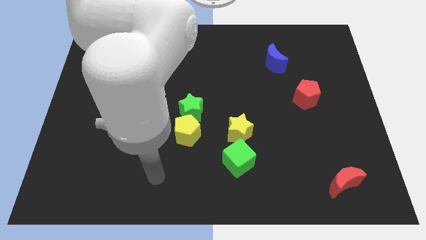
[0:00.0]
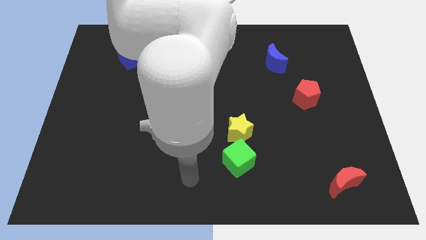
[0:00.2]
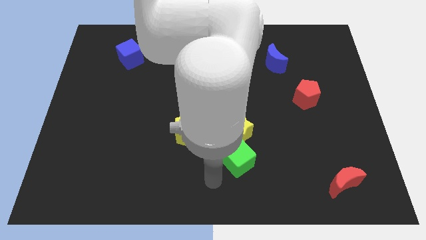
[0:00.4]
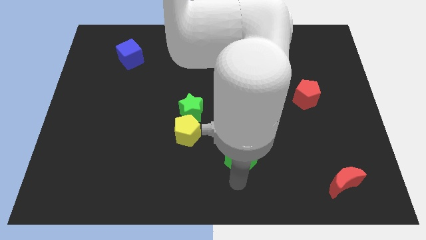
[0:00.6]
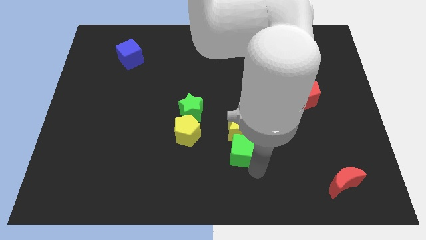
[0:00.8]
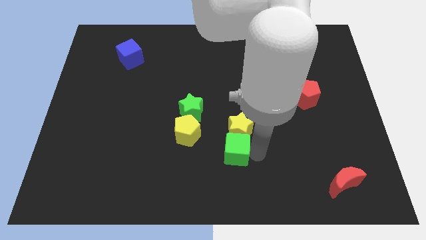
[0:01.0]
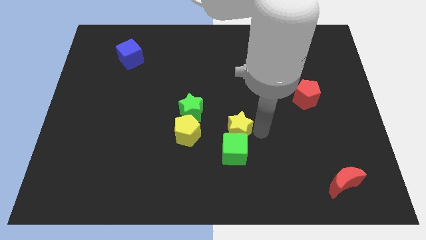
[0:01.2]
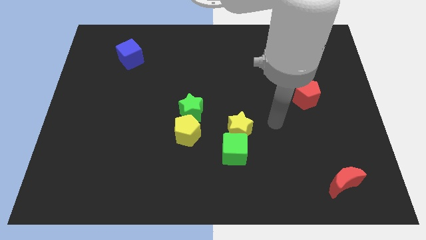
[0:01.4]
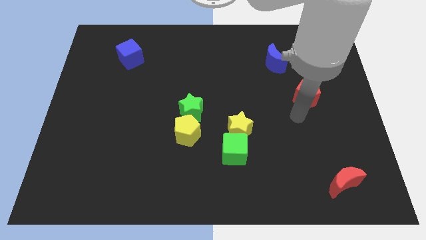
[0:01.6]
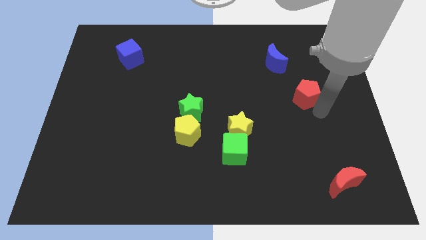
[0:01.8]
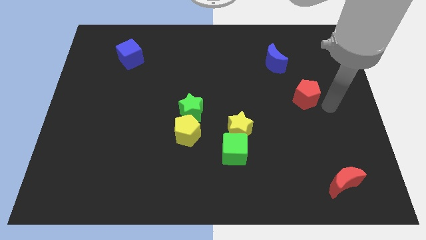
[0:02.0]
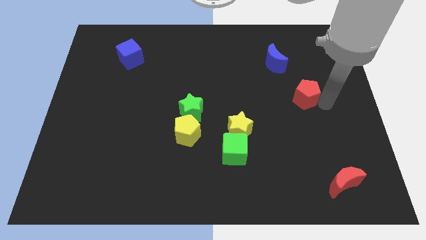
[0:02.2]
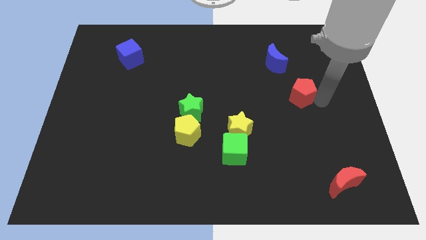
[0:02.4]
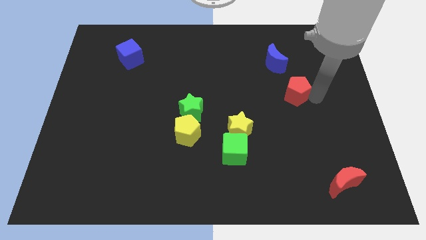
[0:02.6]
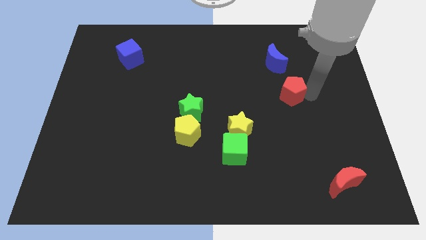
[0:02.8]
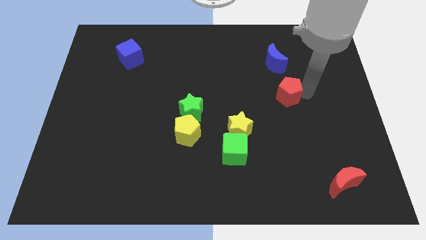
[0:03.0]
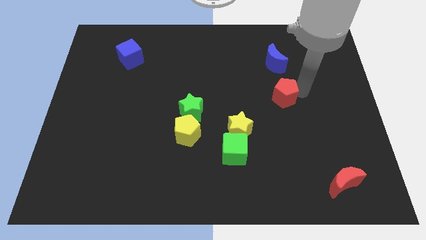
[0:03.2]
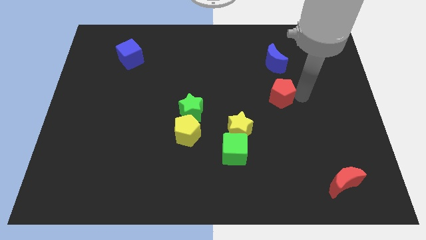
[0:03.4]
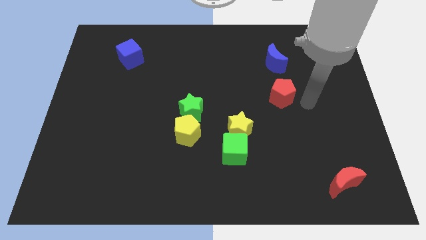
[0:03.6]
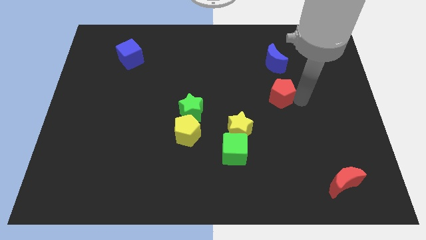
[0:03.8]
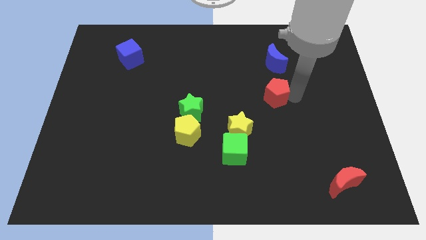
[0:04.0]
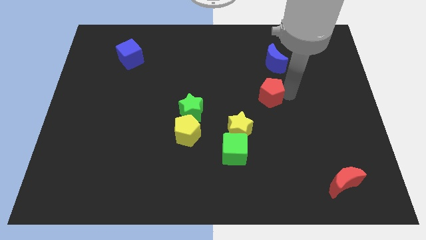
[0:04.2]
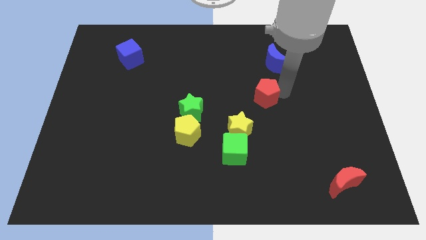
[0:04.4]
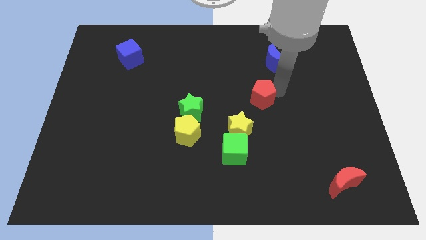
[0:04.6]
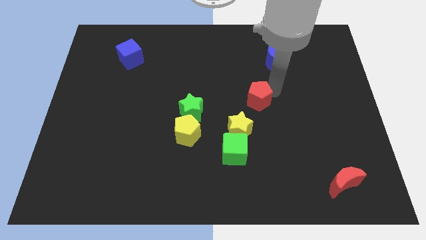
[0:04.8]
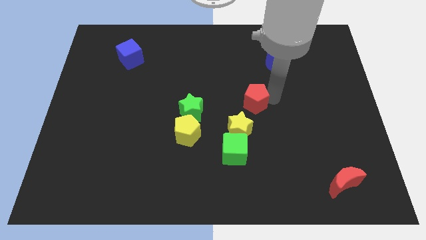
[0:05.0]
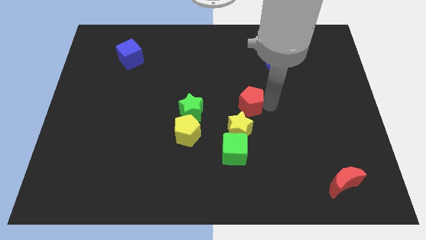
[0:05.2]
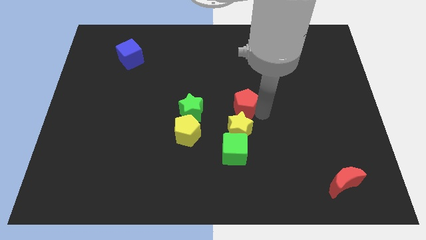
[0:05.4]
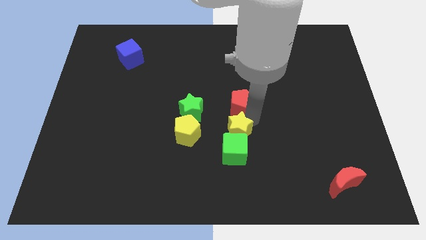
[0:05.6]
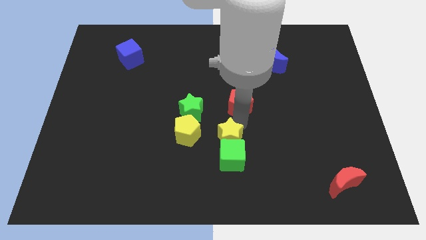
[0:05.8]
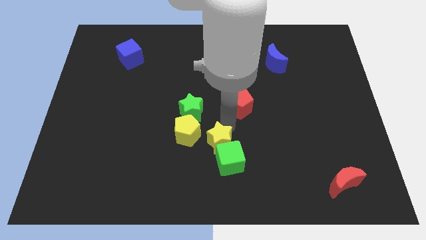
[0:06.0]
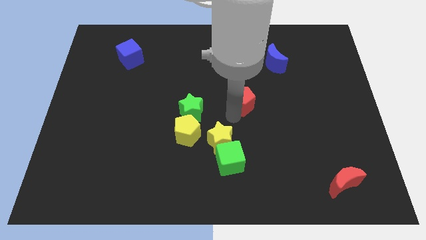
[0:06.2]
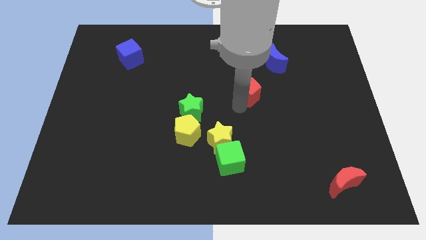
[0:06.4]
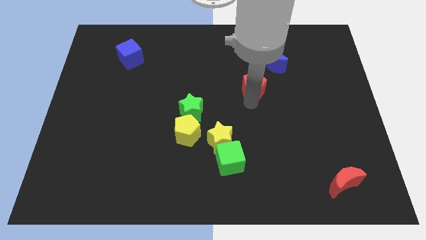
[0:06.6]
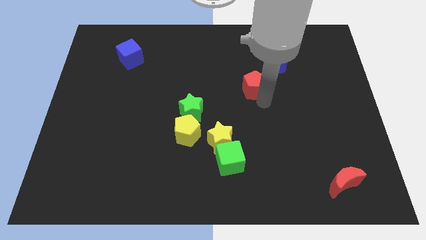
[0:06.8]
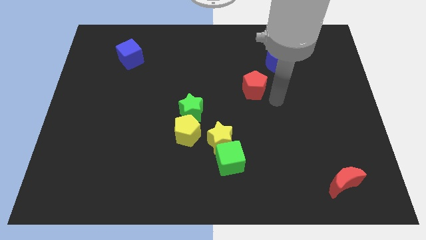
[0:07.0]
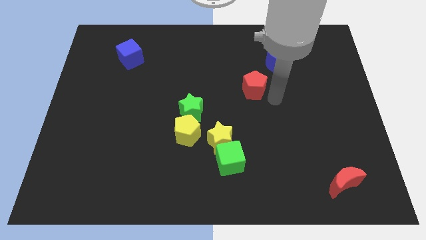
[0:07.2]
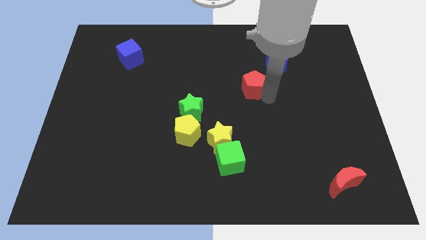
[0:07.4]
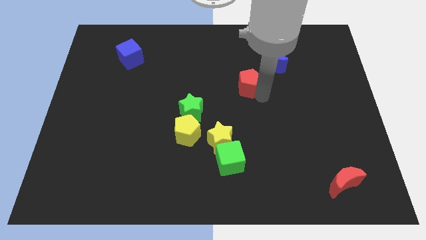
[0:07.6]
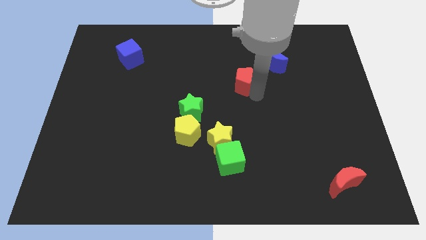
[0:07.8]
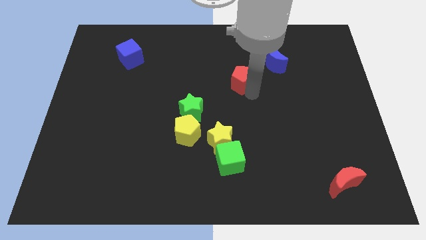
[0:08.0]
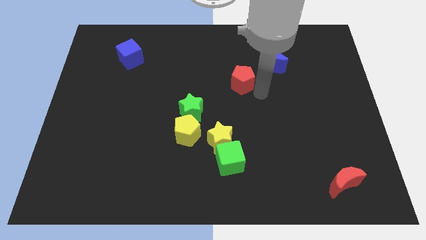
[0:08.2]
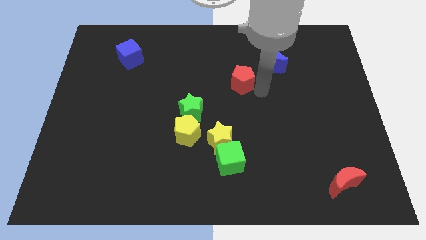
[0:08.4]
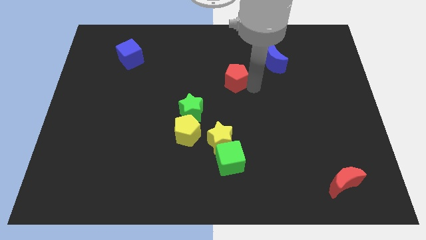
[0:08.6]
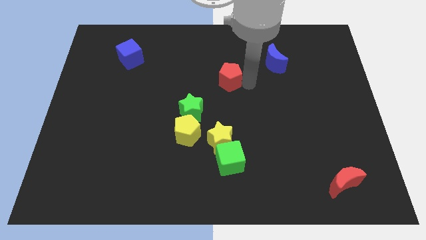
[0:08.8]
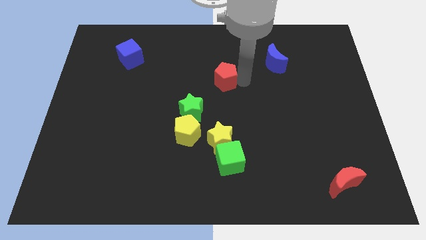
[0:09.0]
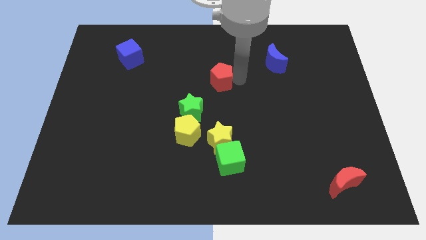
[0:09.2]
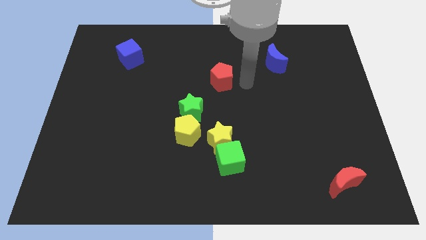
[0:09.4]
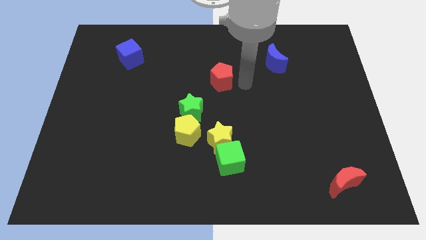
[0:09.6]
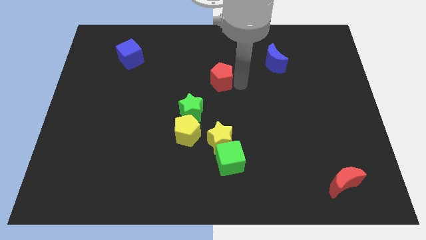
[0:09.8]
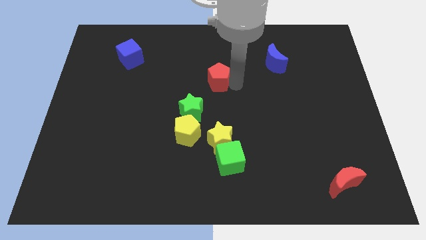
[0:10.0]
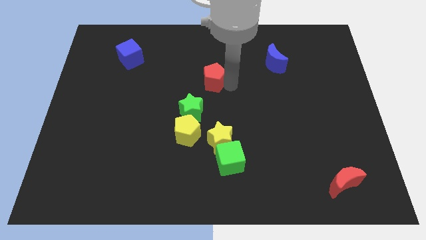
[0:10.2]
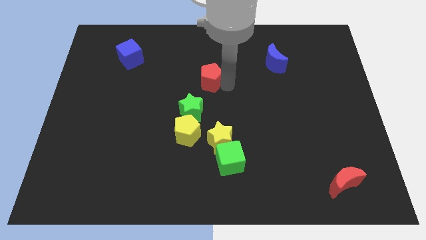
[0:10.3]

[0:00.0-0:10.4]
put the red pentagon to the top of the green star

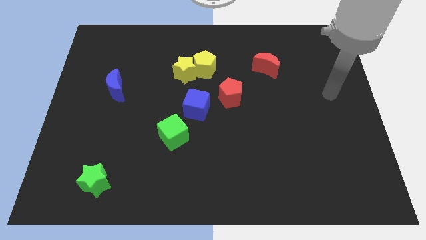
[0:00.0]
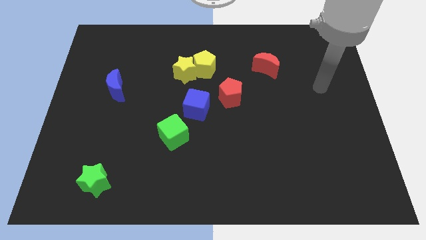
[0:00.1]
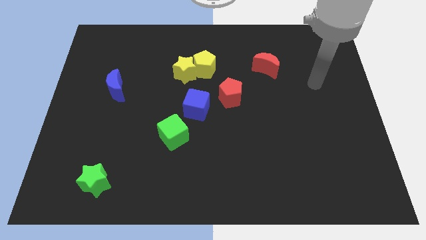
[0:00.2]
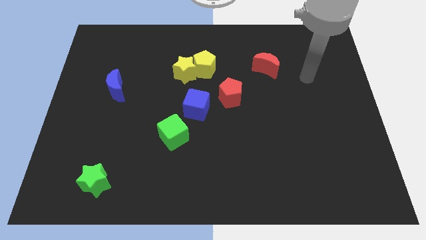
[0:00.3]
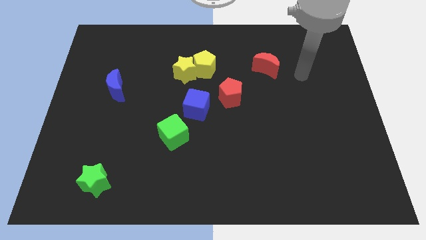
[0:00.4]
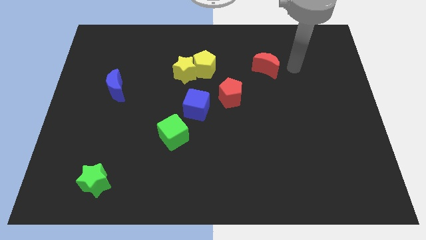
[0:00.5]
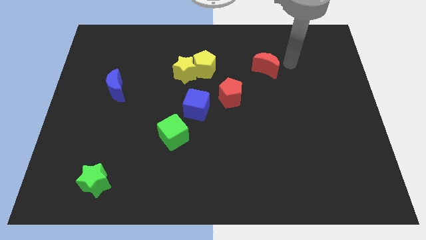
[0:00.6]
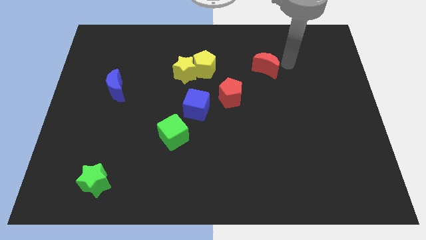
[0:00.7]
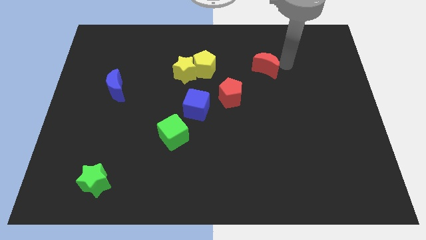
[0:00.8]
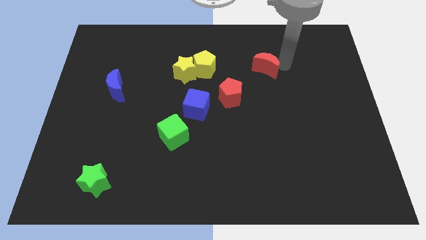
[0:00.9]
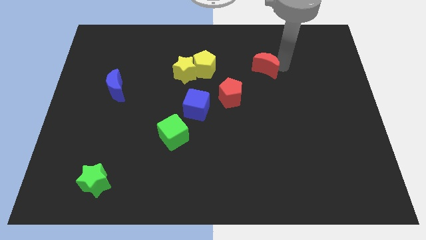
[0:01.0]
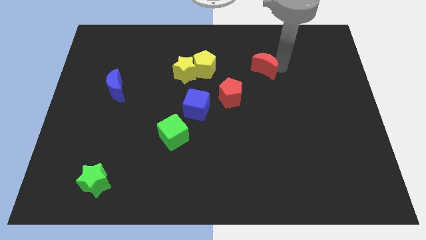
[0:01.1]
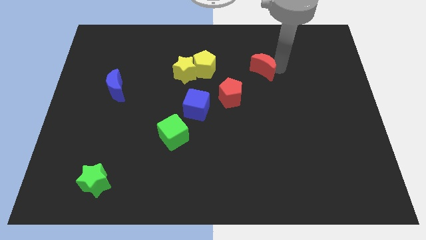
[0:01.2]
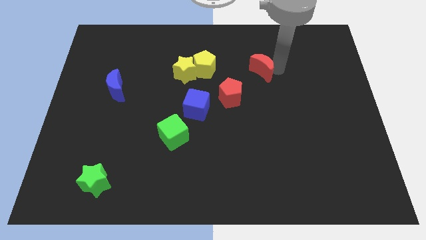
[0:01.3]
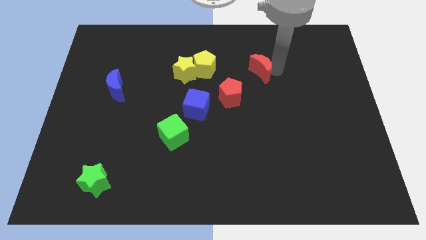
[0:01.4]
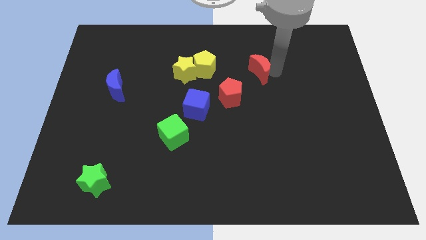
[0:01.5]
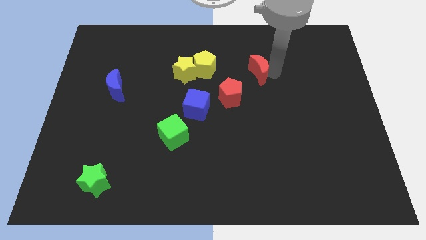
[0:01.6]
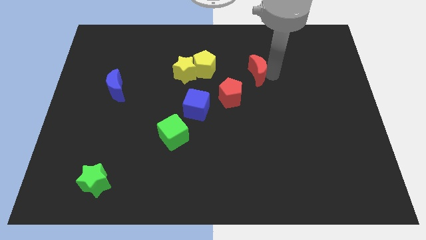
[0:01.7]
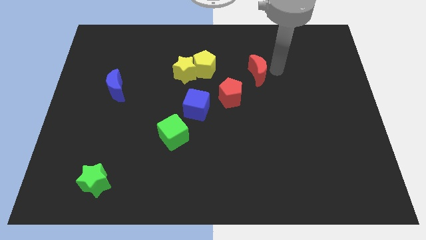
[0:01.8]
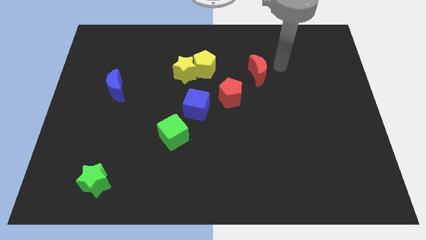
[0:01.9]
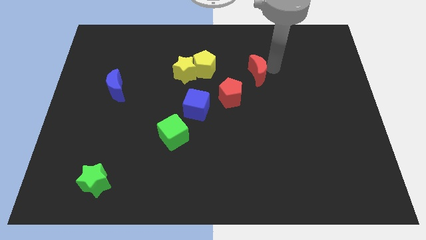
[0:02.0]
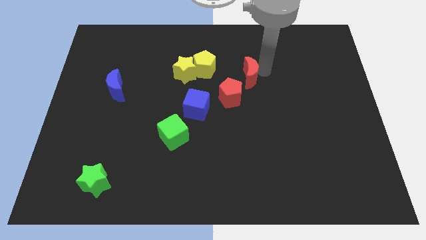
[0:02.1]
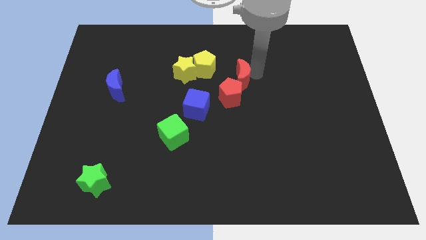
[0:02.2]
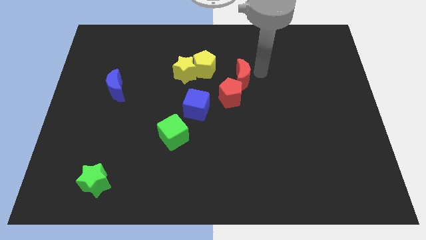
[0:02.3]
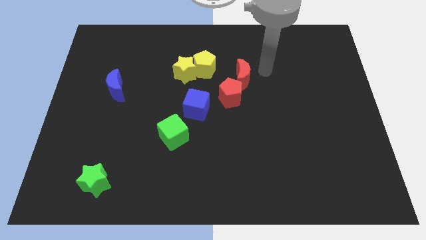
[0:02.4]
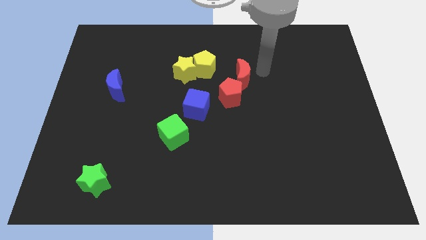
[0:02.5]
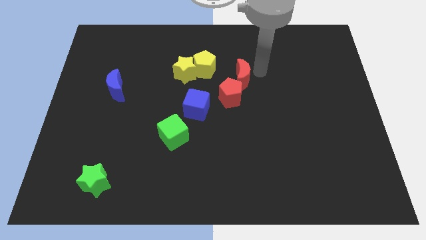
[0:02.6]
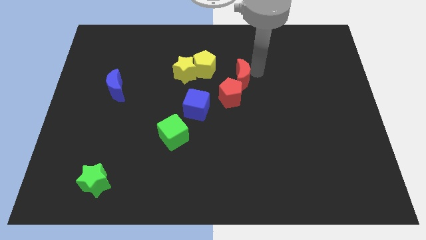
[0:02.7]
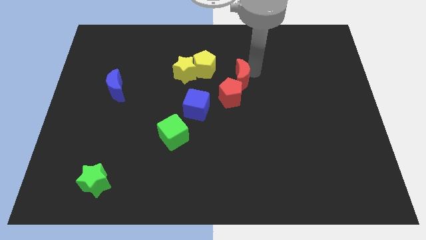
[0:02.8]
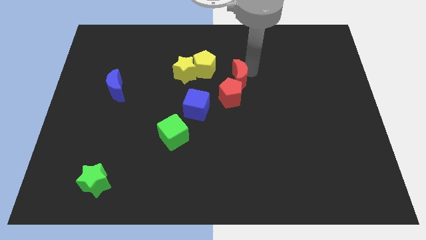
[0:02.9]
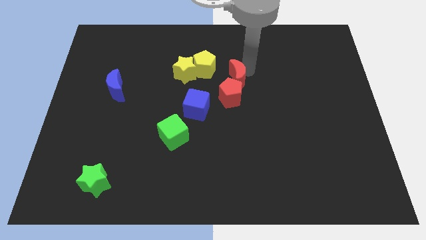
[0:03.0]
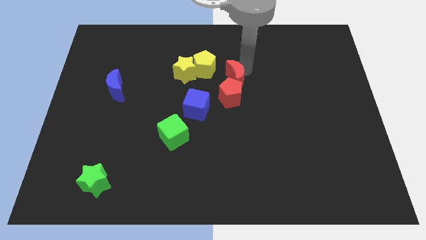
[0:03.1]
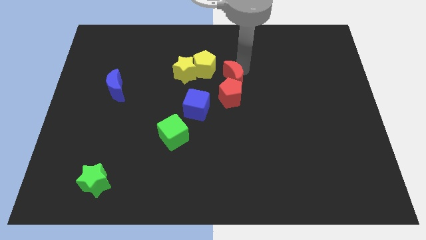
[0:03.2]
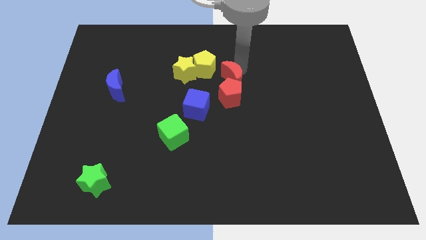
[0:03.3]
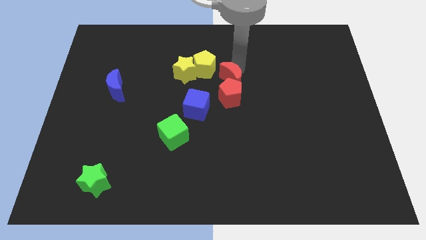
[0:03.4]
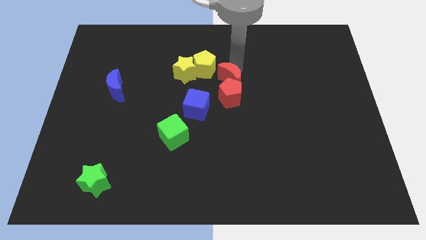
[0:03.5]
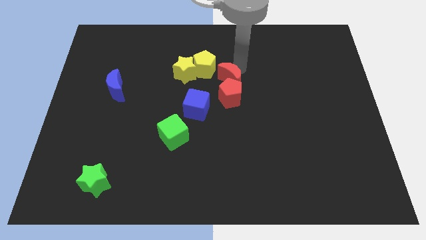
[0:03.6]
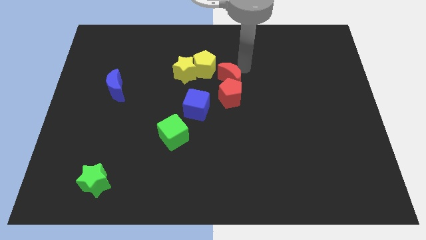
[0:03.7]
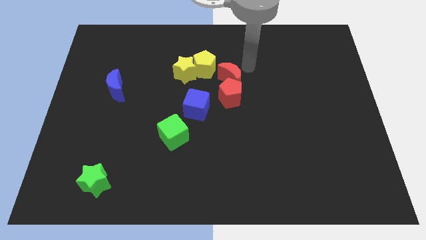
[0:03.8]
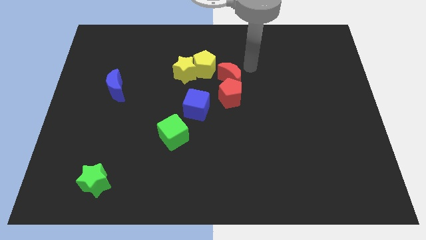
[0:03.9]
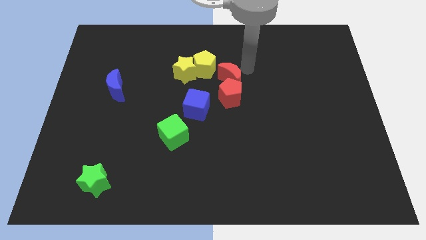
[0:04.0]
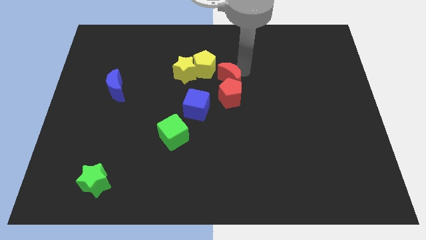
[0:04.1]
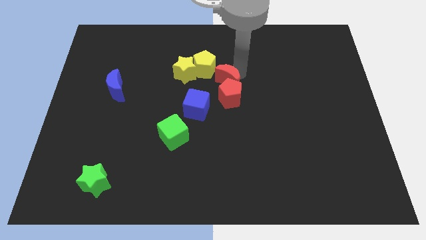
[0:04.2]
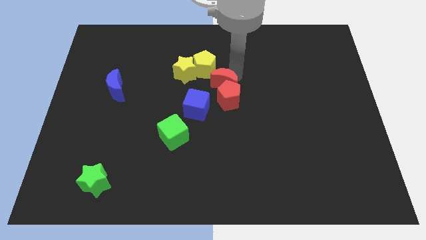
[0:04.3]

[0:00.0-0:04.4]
put the red moon diagonally down and to the right of the yellow star
